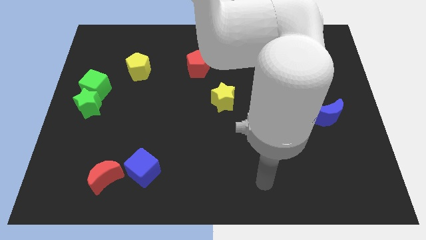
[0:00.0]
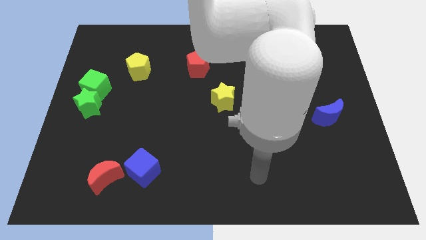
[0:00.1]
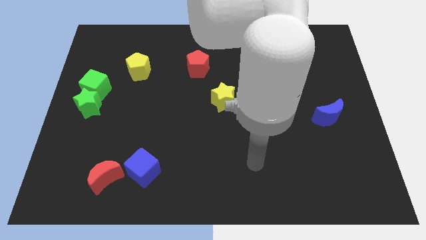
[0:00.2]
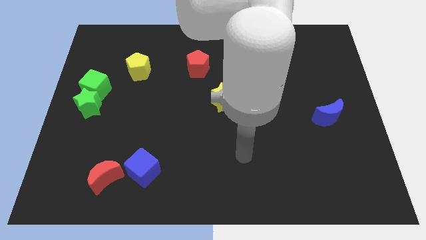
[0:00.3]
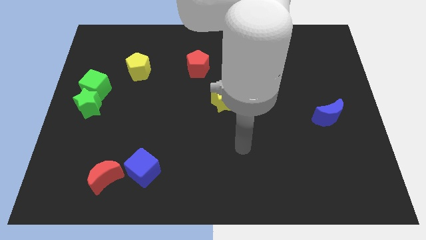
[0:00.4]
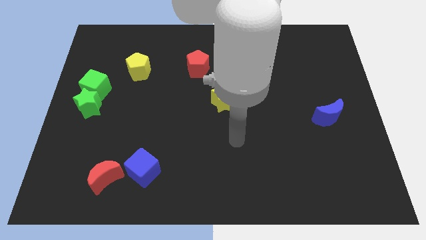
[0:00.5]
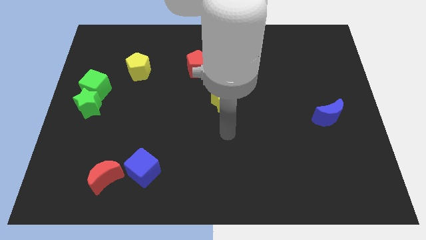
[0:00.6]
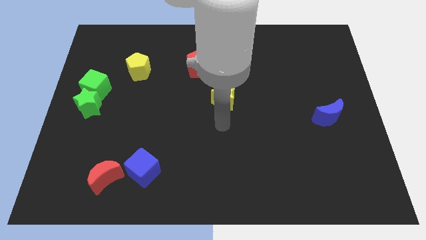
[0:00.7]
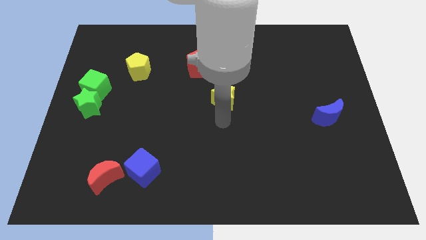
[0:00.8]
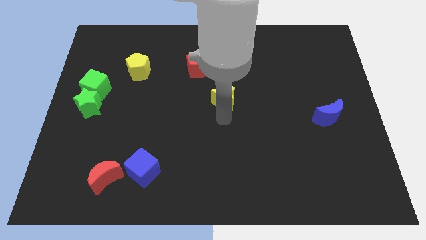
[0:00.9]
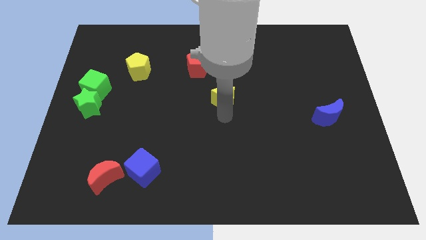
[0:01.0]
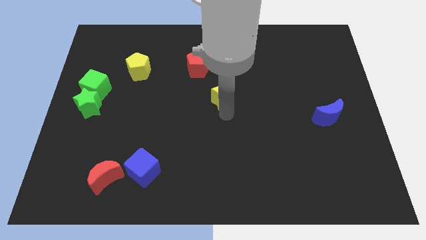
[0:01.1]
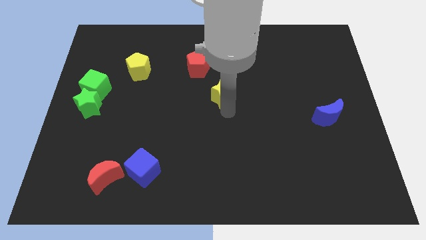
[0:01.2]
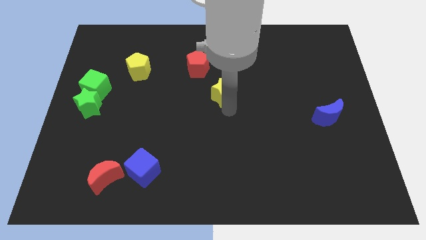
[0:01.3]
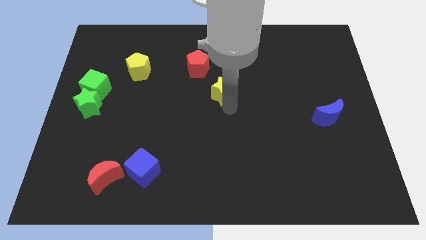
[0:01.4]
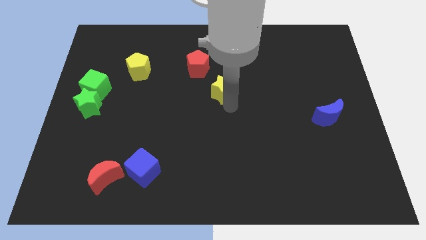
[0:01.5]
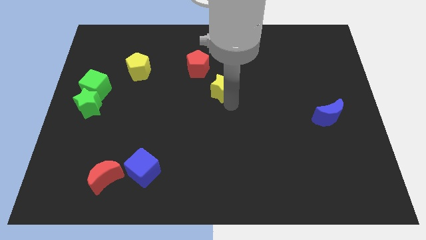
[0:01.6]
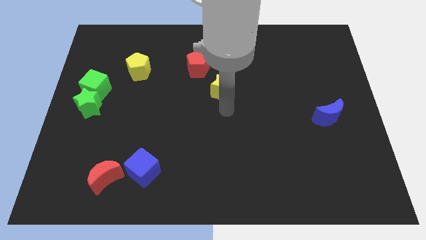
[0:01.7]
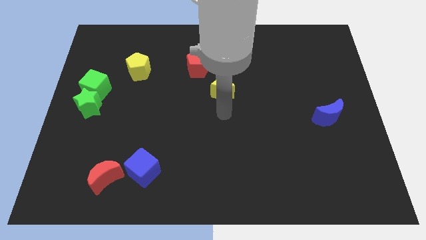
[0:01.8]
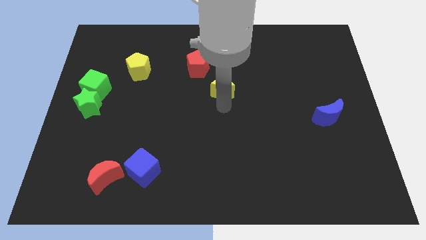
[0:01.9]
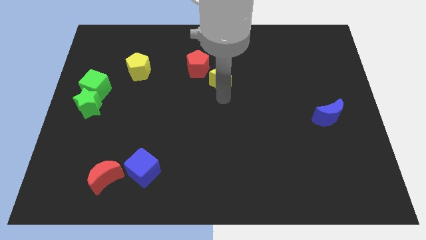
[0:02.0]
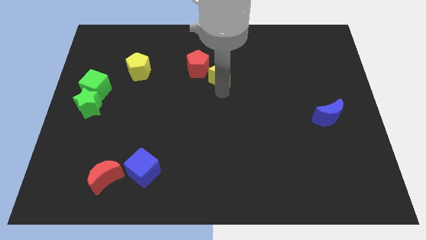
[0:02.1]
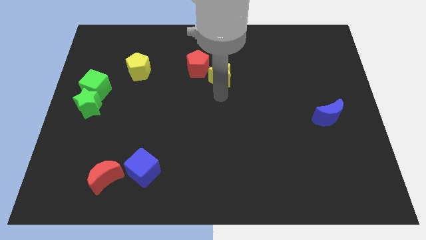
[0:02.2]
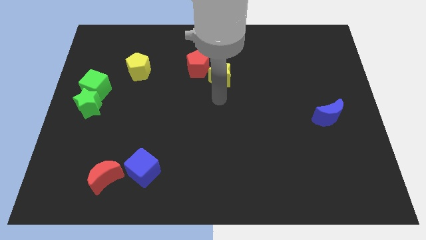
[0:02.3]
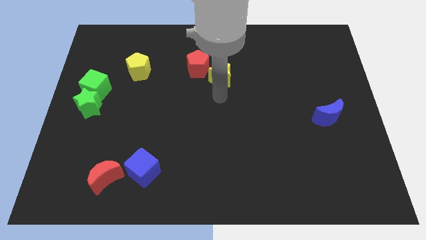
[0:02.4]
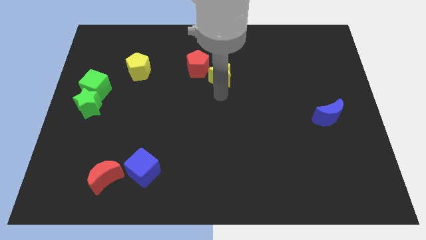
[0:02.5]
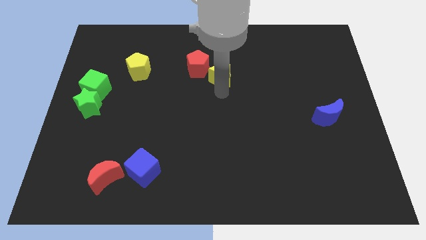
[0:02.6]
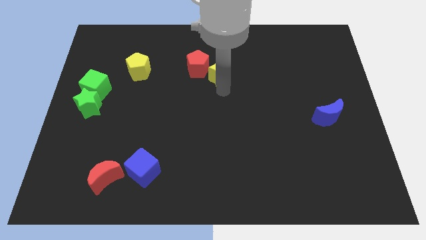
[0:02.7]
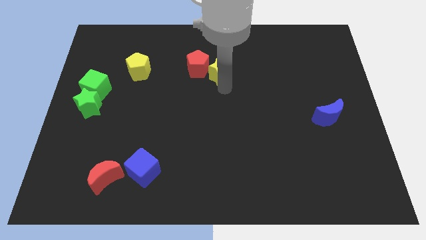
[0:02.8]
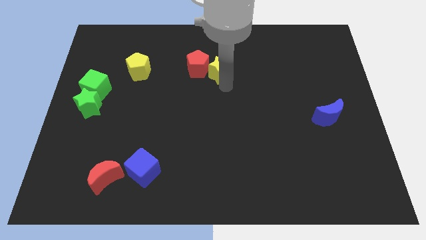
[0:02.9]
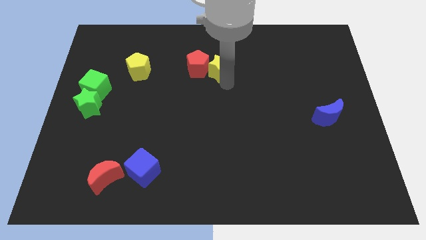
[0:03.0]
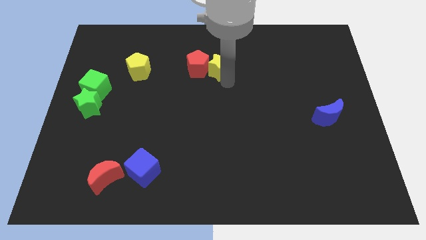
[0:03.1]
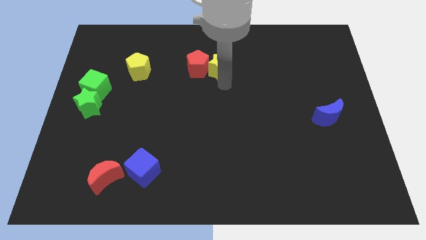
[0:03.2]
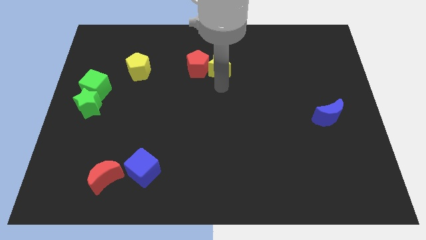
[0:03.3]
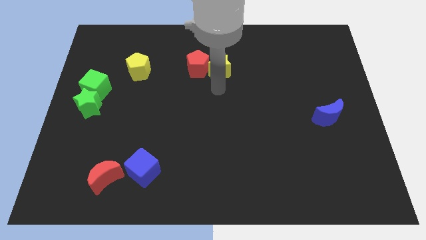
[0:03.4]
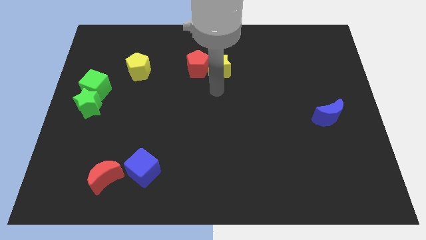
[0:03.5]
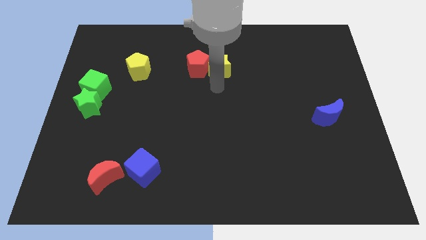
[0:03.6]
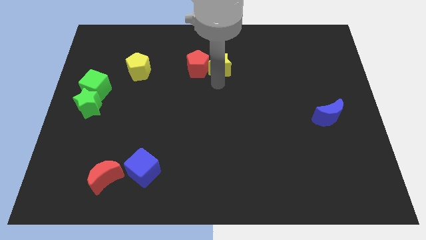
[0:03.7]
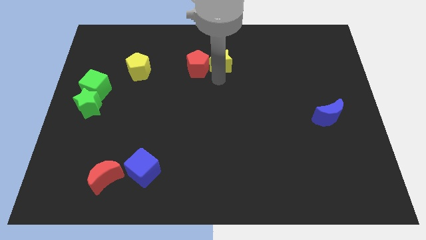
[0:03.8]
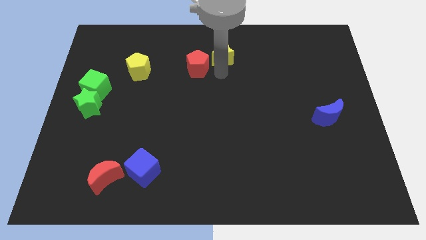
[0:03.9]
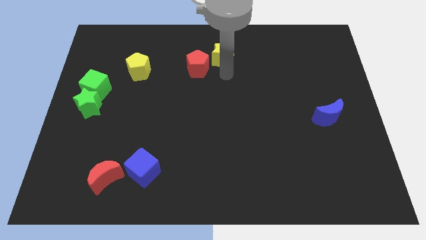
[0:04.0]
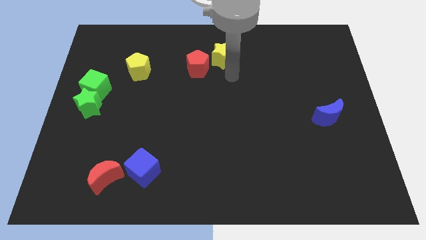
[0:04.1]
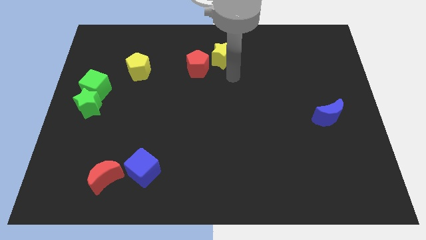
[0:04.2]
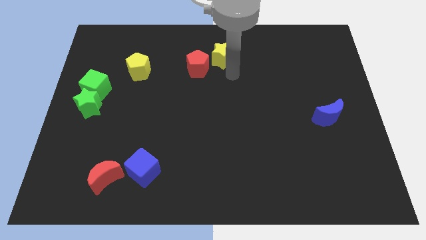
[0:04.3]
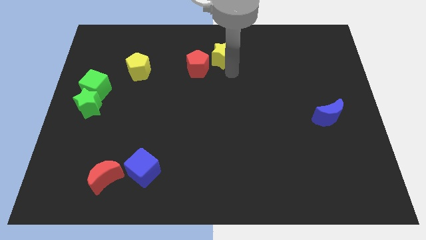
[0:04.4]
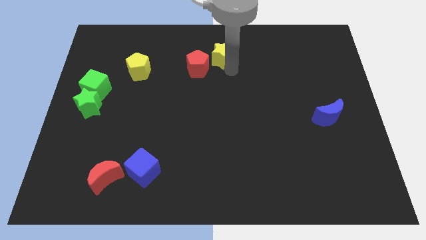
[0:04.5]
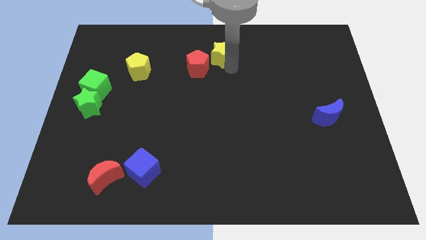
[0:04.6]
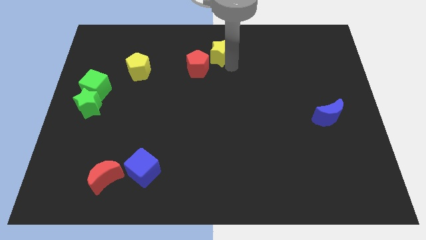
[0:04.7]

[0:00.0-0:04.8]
put the yellow star to the towards your base

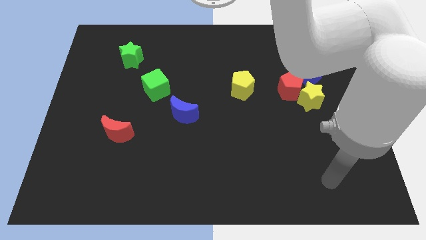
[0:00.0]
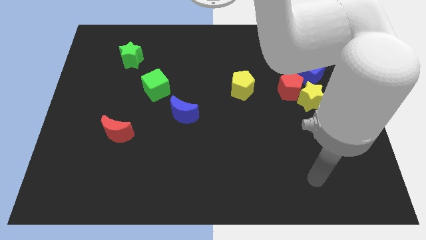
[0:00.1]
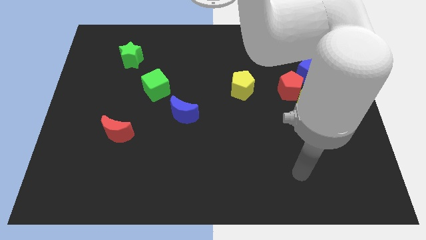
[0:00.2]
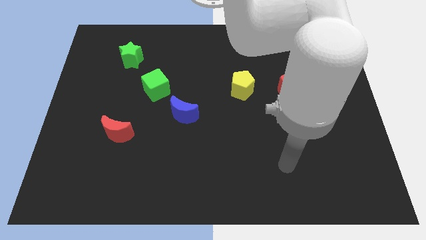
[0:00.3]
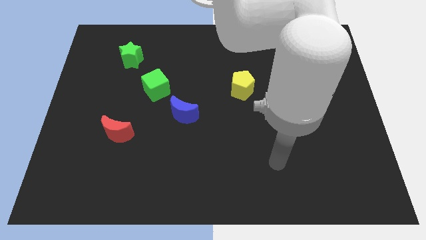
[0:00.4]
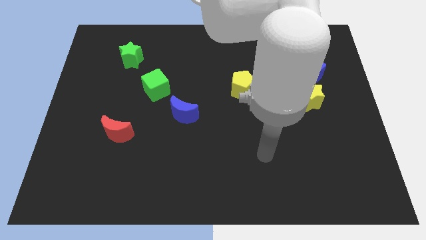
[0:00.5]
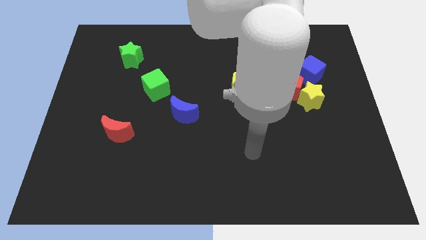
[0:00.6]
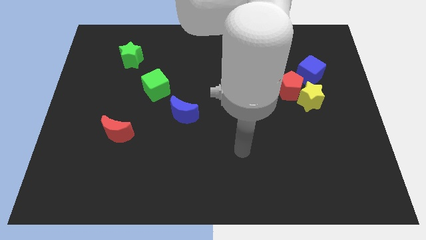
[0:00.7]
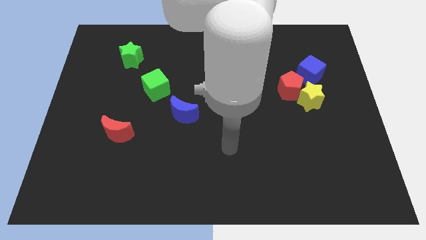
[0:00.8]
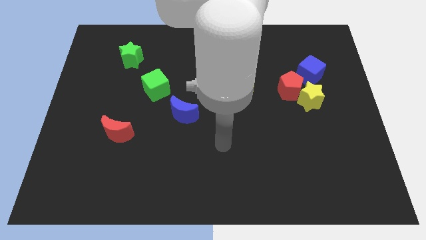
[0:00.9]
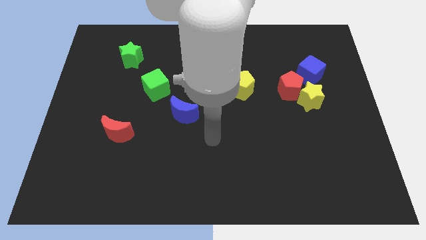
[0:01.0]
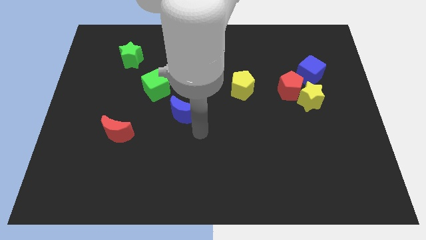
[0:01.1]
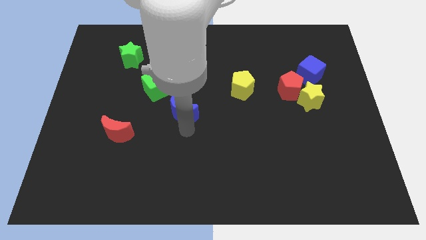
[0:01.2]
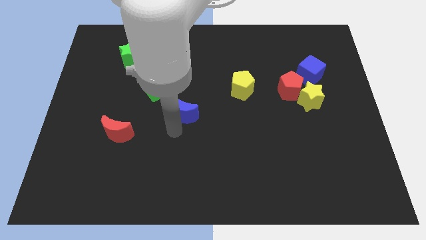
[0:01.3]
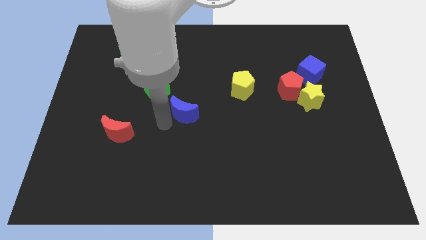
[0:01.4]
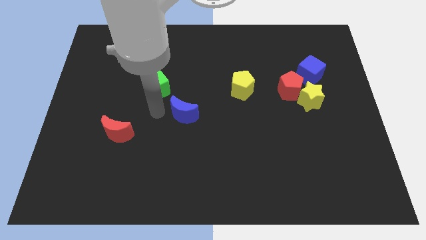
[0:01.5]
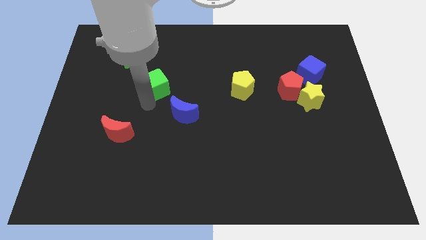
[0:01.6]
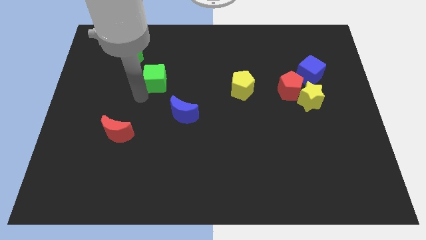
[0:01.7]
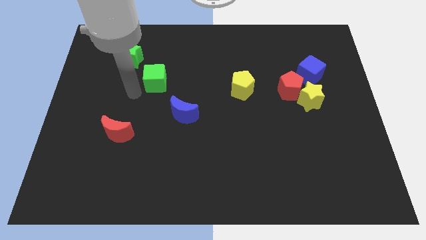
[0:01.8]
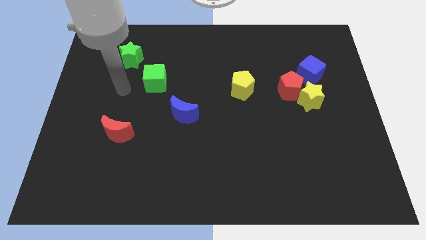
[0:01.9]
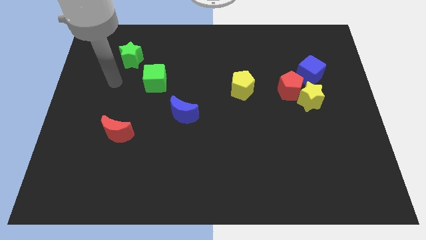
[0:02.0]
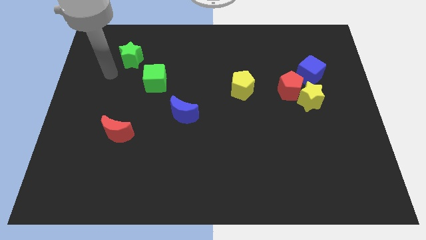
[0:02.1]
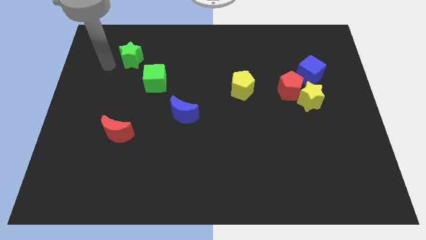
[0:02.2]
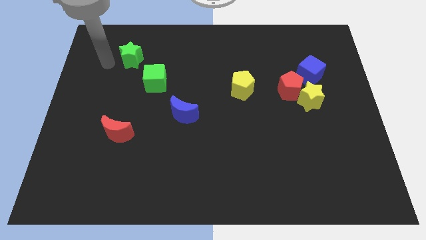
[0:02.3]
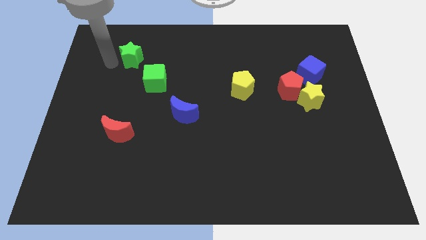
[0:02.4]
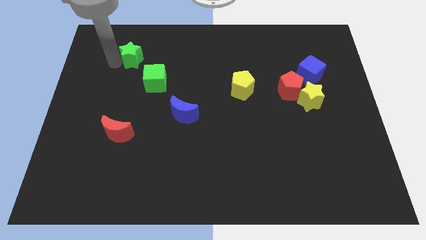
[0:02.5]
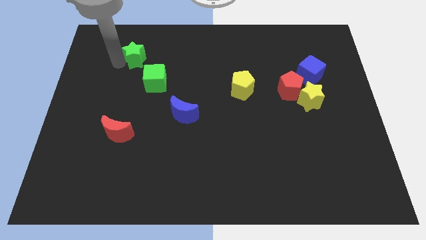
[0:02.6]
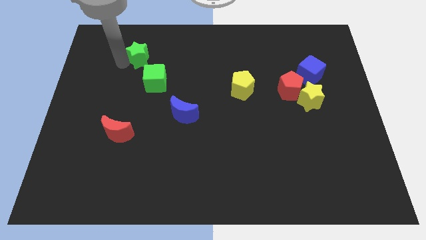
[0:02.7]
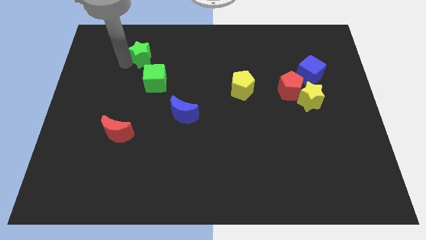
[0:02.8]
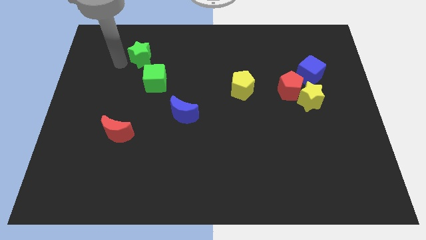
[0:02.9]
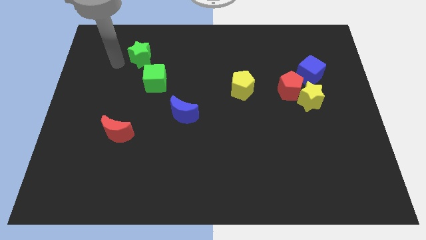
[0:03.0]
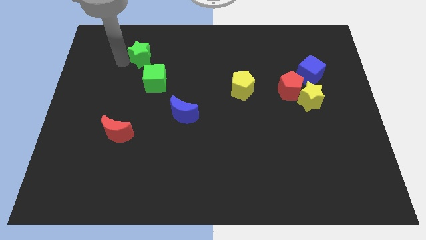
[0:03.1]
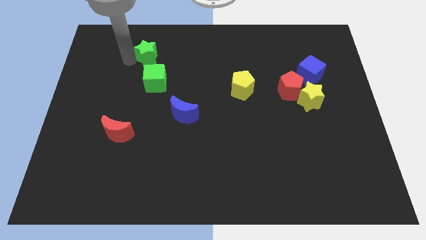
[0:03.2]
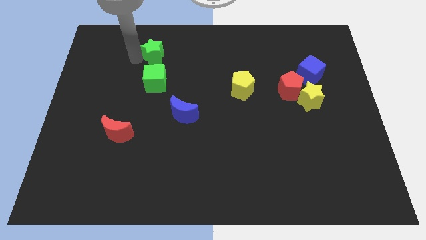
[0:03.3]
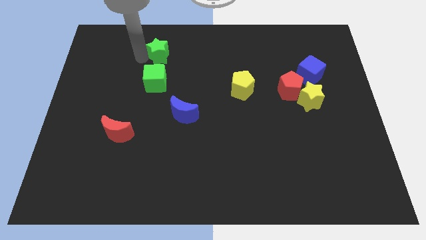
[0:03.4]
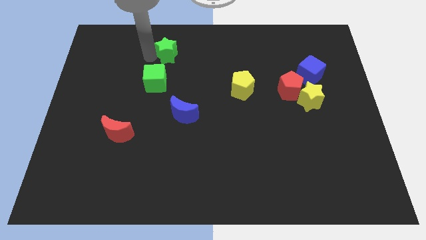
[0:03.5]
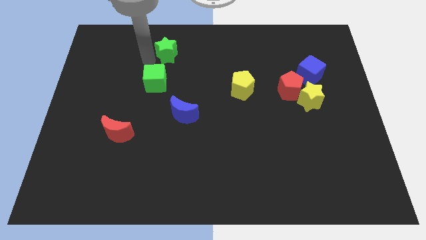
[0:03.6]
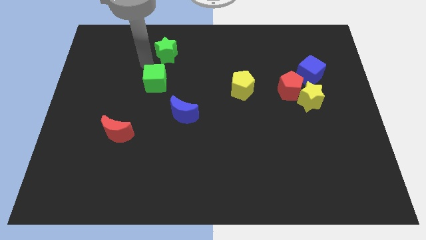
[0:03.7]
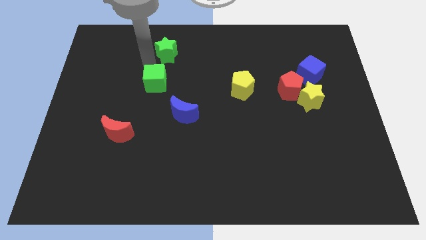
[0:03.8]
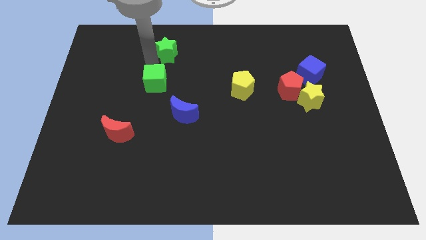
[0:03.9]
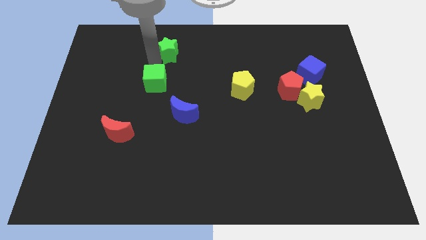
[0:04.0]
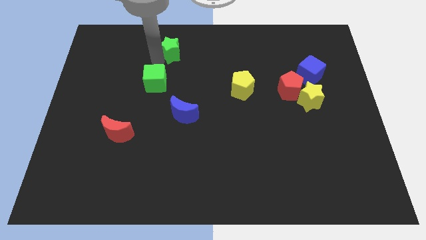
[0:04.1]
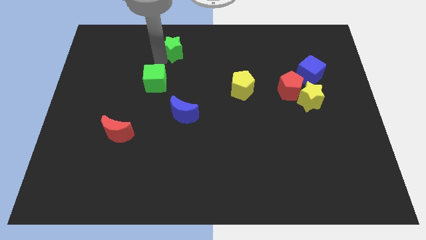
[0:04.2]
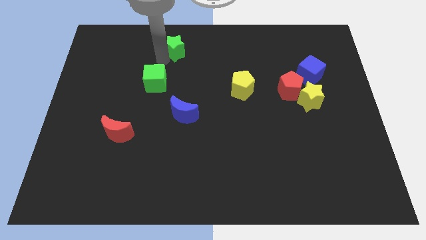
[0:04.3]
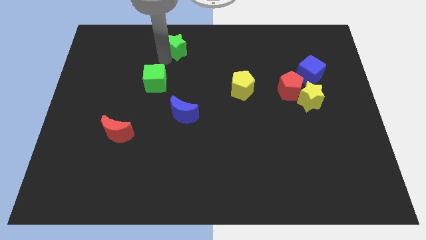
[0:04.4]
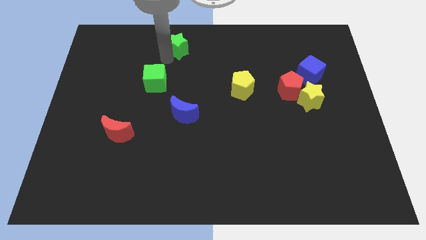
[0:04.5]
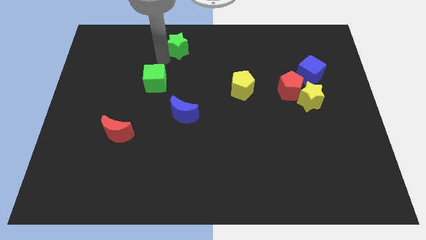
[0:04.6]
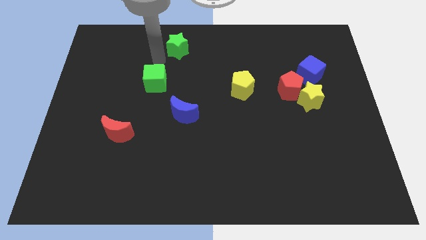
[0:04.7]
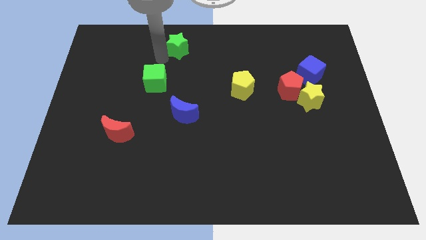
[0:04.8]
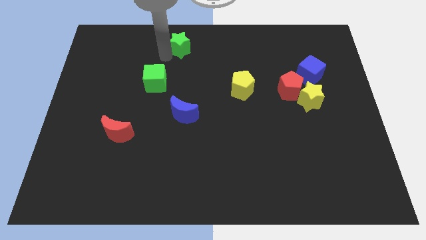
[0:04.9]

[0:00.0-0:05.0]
move the green star to the top
